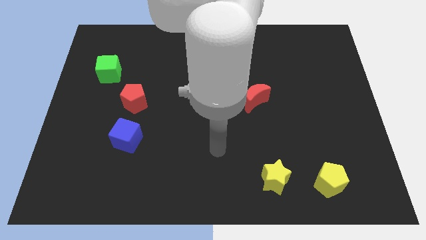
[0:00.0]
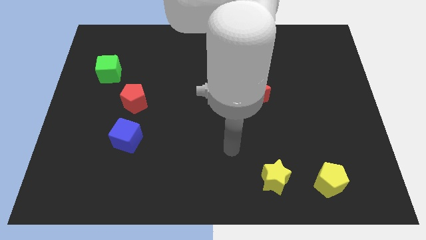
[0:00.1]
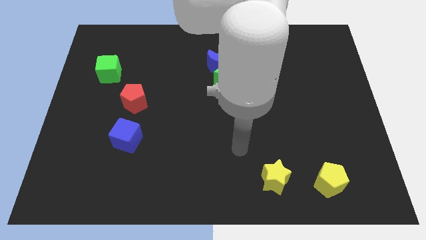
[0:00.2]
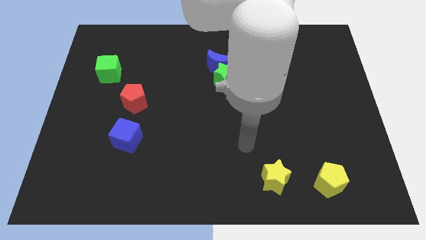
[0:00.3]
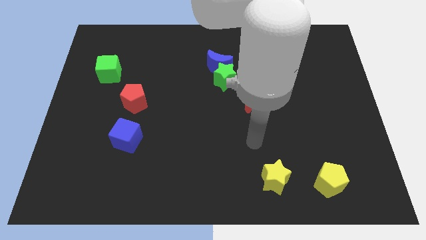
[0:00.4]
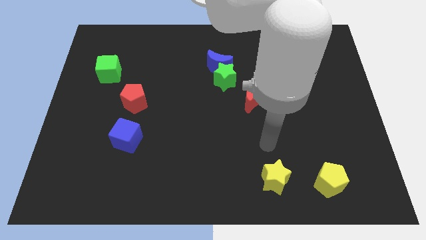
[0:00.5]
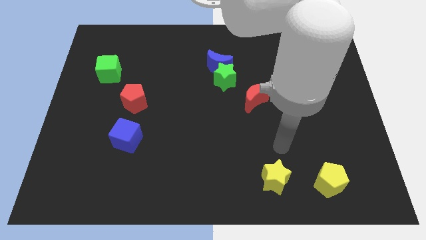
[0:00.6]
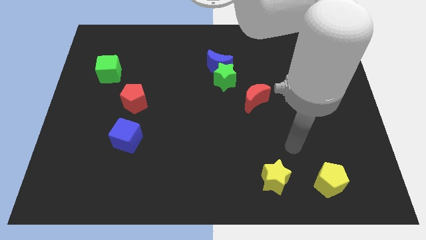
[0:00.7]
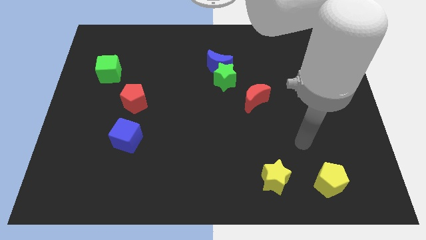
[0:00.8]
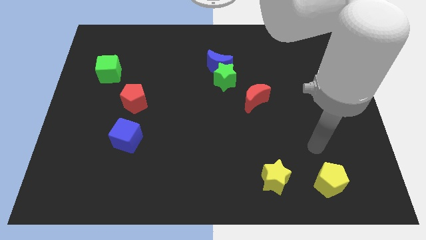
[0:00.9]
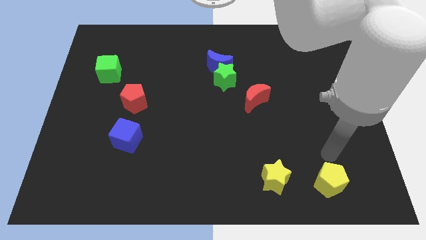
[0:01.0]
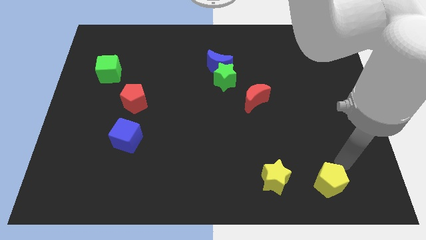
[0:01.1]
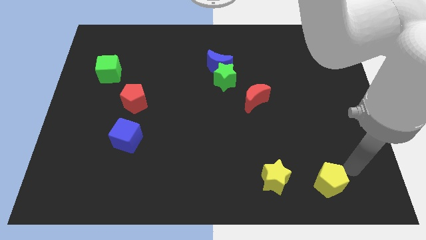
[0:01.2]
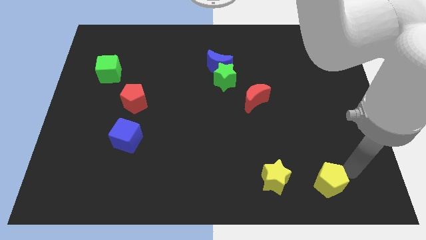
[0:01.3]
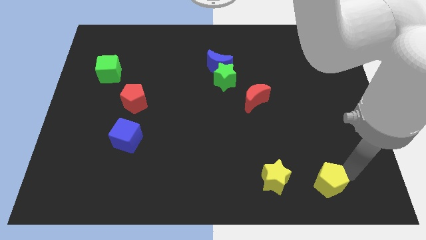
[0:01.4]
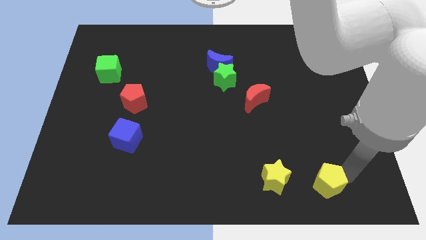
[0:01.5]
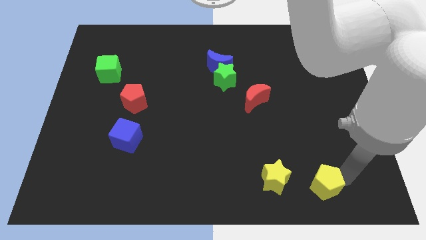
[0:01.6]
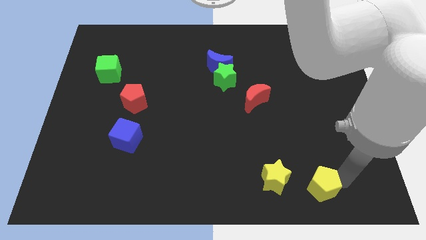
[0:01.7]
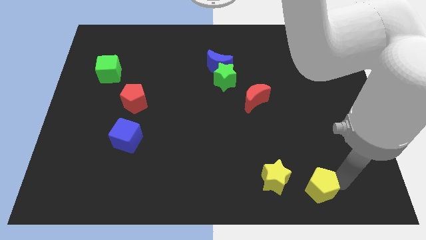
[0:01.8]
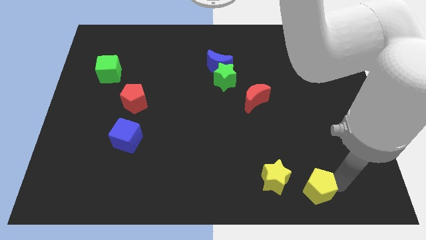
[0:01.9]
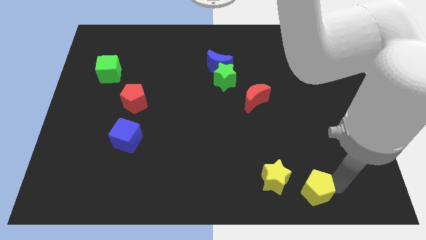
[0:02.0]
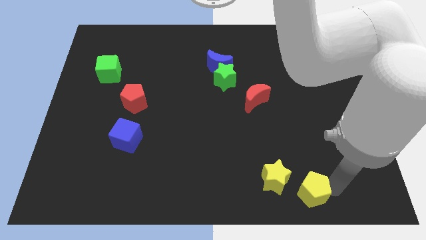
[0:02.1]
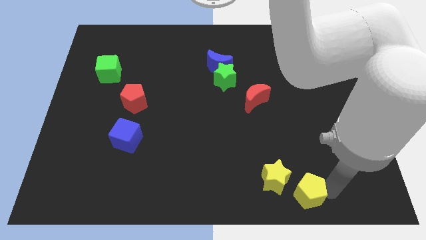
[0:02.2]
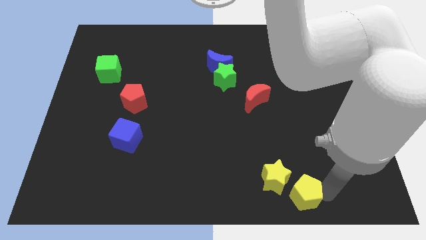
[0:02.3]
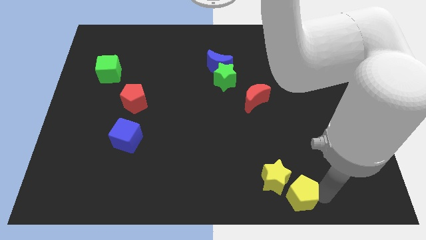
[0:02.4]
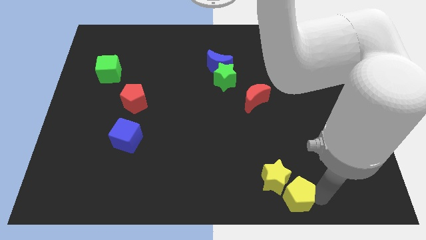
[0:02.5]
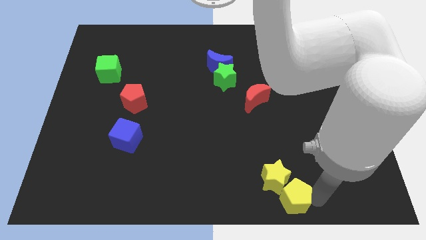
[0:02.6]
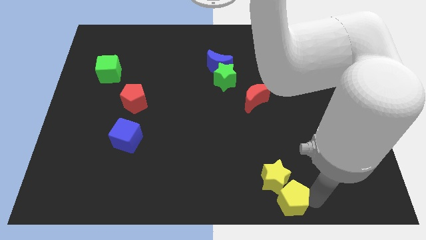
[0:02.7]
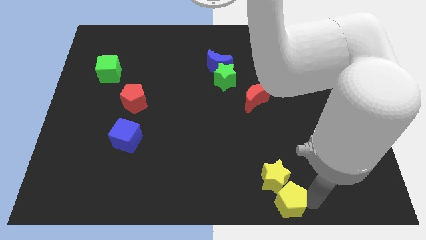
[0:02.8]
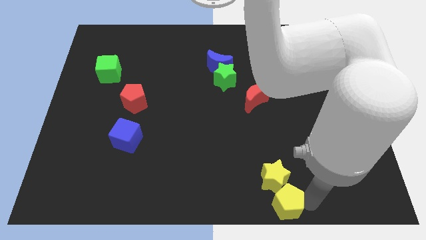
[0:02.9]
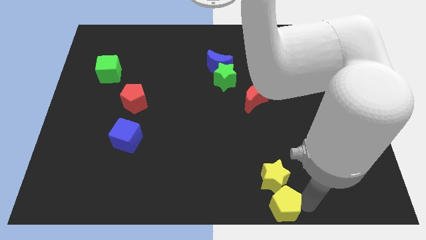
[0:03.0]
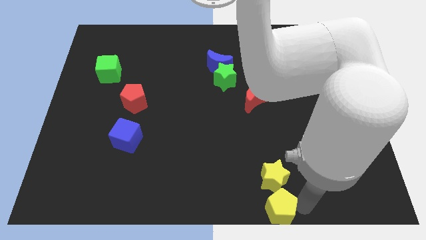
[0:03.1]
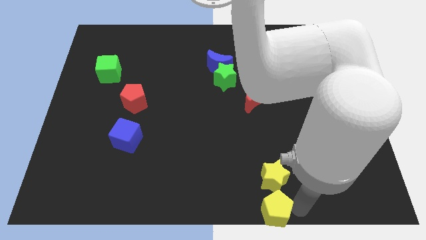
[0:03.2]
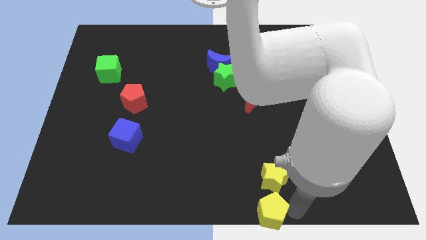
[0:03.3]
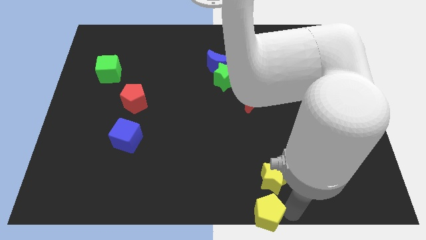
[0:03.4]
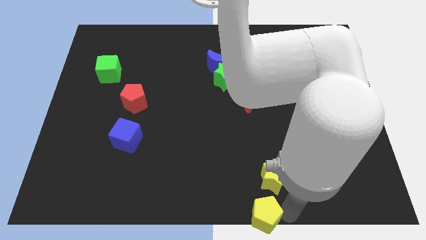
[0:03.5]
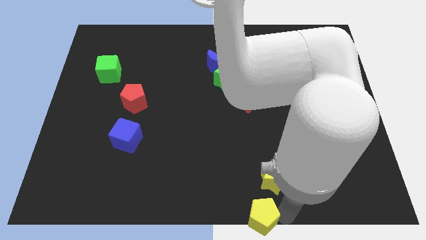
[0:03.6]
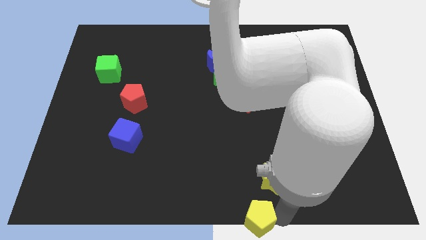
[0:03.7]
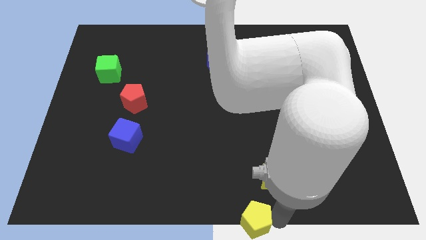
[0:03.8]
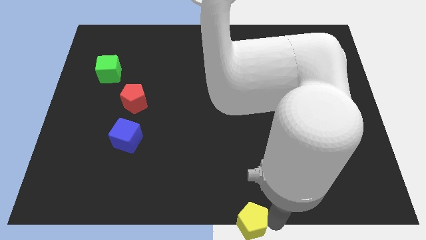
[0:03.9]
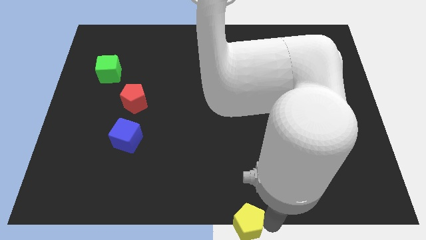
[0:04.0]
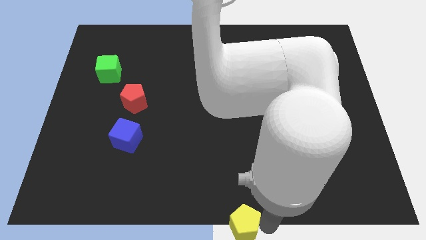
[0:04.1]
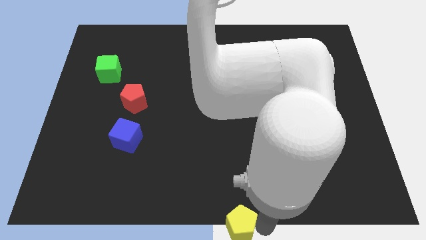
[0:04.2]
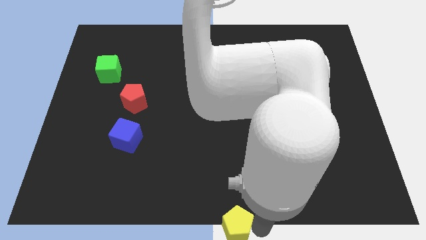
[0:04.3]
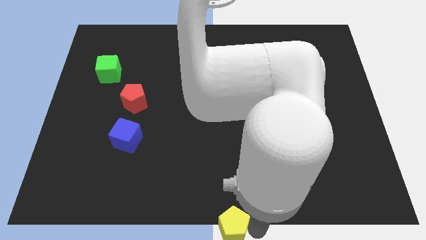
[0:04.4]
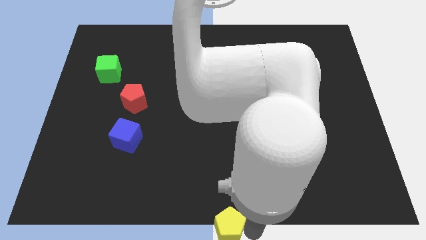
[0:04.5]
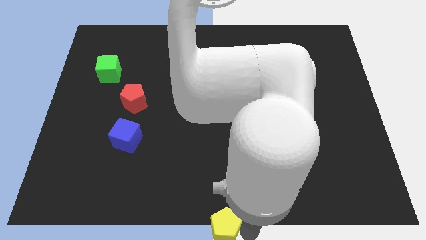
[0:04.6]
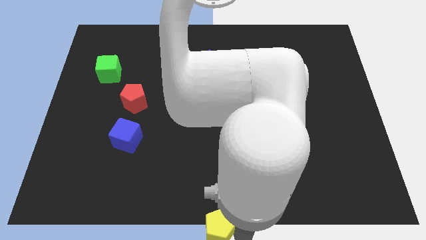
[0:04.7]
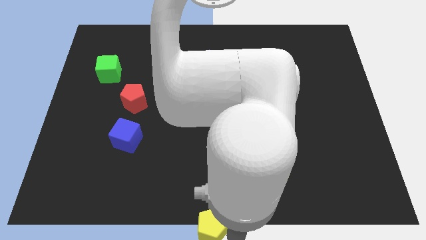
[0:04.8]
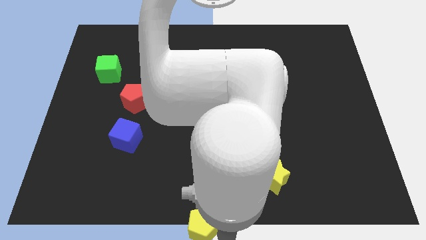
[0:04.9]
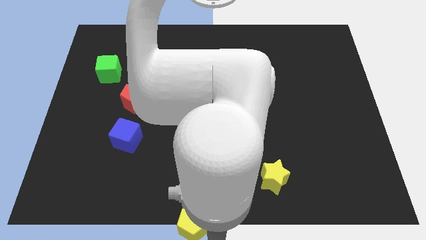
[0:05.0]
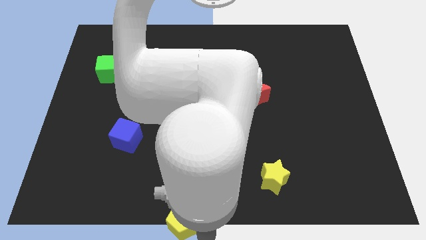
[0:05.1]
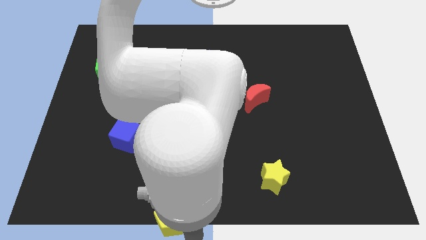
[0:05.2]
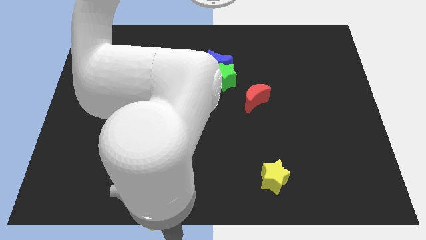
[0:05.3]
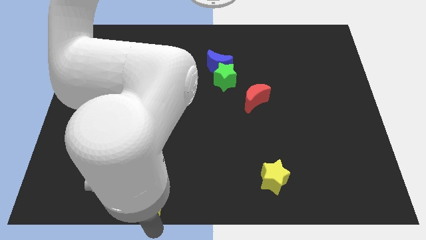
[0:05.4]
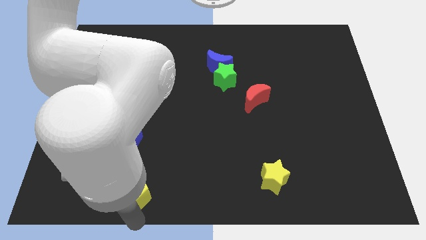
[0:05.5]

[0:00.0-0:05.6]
move the yellow pentagon to the bottom side of the blue cube

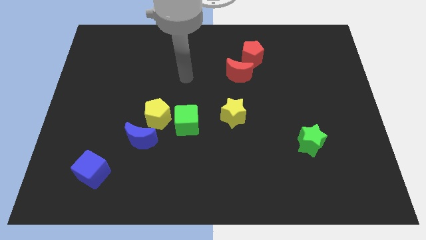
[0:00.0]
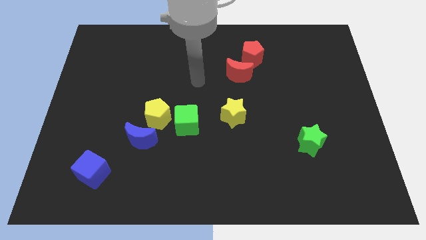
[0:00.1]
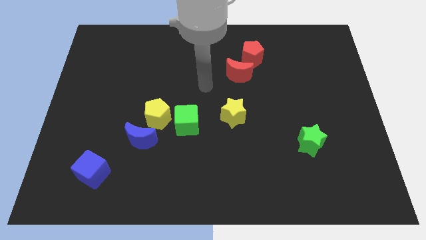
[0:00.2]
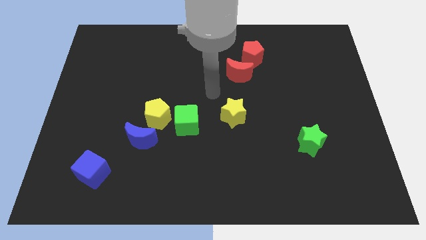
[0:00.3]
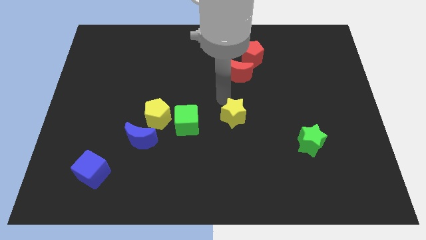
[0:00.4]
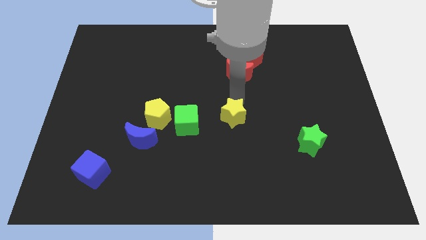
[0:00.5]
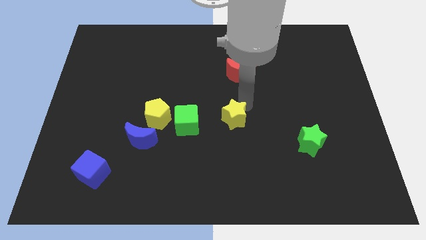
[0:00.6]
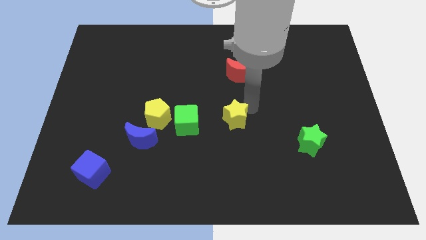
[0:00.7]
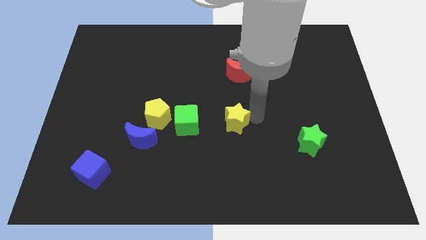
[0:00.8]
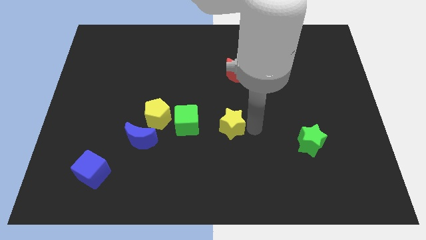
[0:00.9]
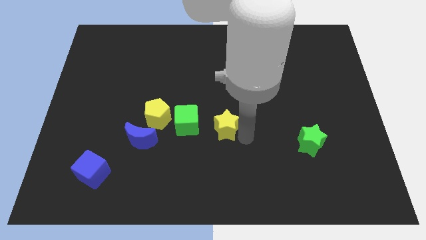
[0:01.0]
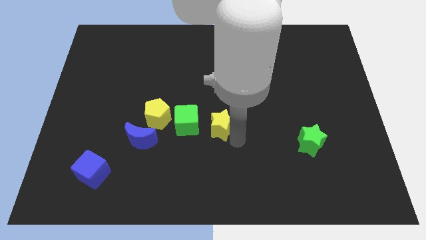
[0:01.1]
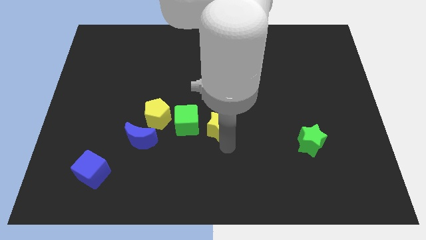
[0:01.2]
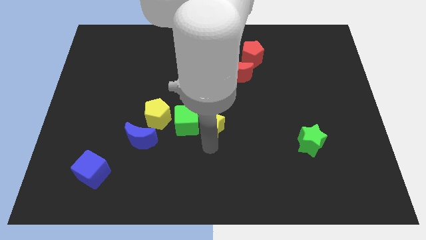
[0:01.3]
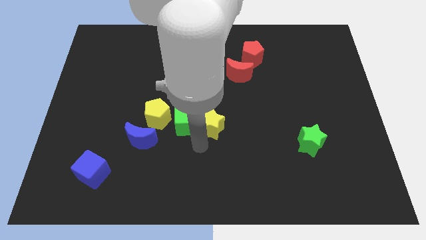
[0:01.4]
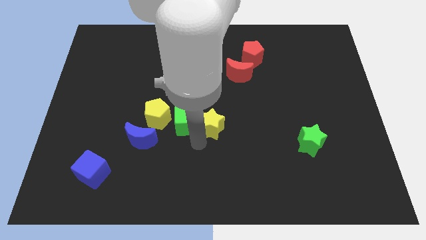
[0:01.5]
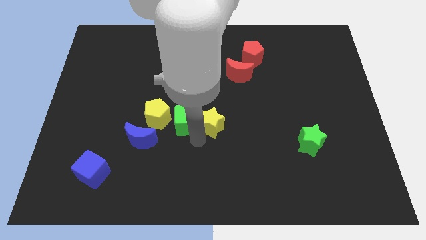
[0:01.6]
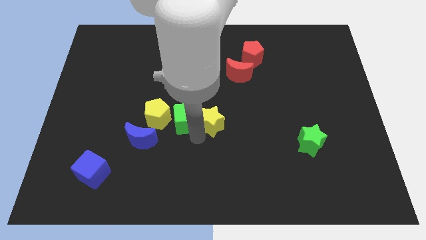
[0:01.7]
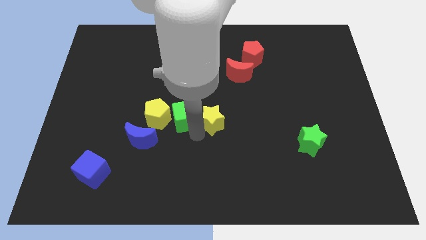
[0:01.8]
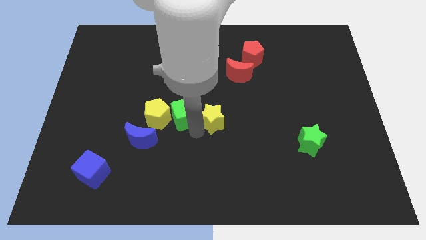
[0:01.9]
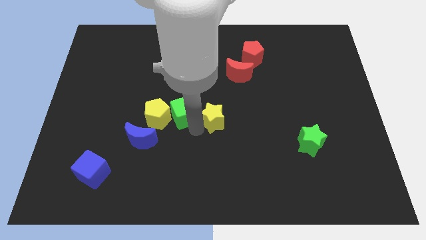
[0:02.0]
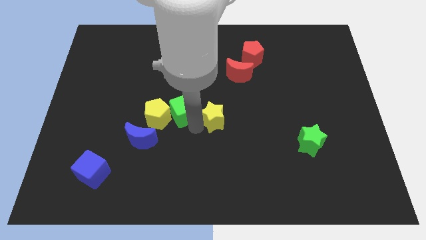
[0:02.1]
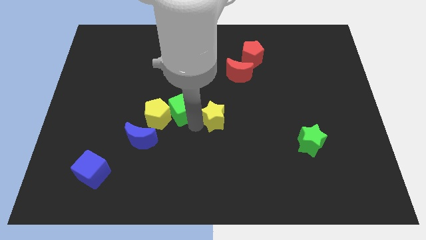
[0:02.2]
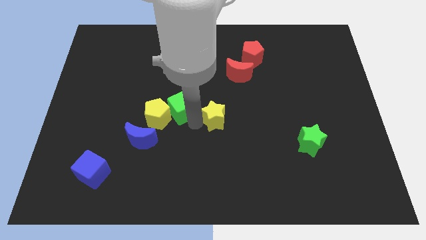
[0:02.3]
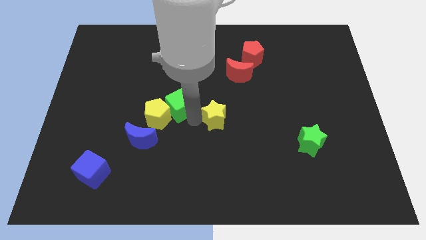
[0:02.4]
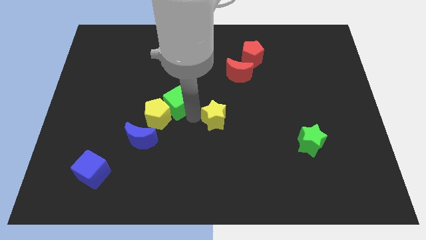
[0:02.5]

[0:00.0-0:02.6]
push the green cube to the top side of the yellow pentagon
